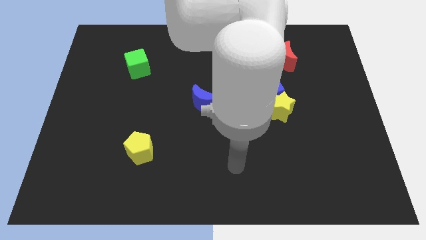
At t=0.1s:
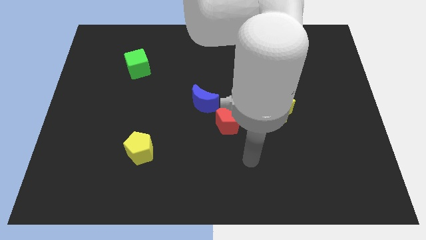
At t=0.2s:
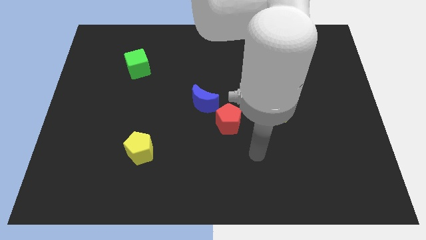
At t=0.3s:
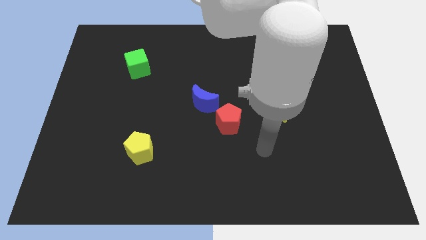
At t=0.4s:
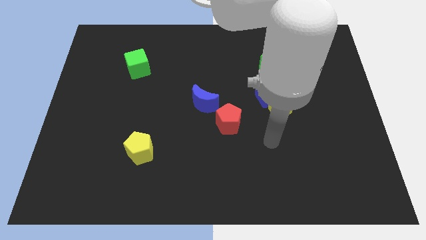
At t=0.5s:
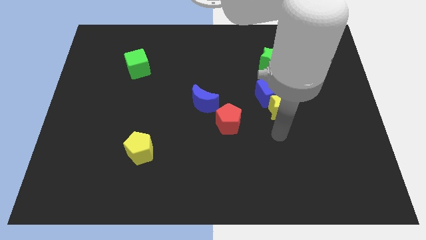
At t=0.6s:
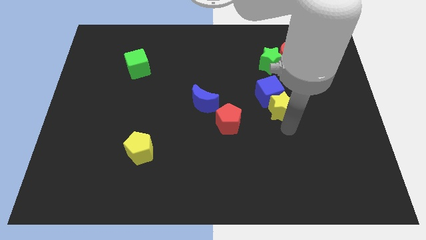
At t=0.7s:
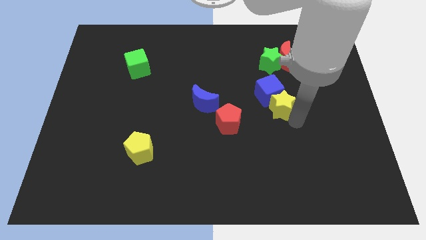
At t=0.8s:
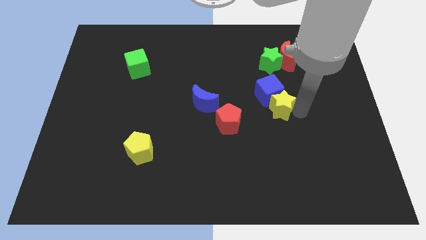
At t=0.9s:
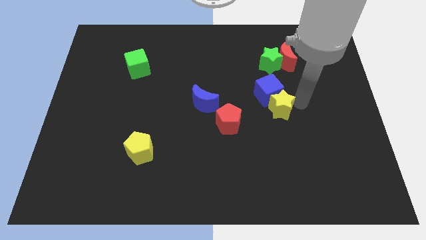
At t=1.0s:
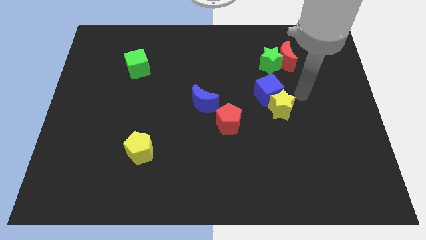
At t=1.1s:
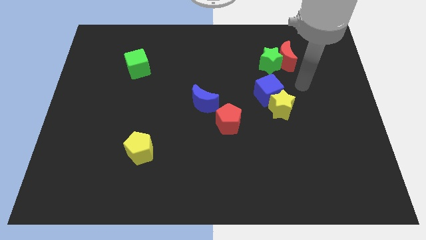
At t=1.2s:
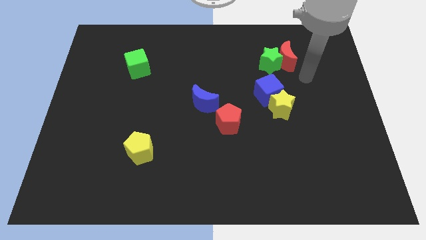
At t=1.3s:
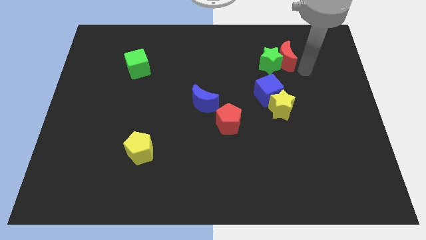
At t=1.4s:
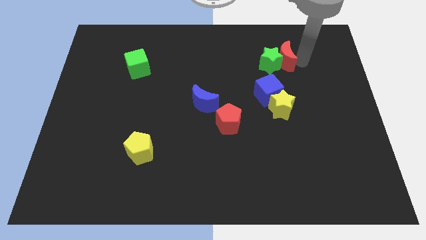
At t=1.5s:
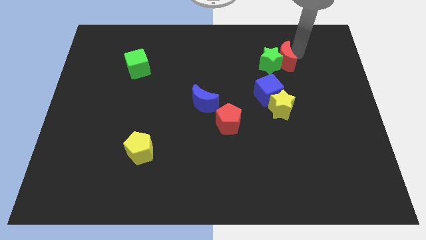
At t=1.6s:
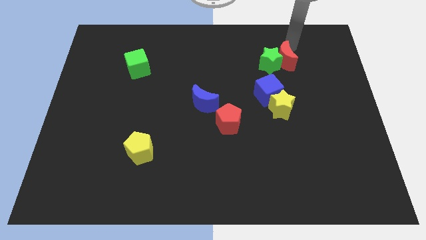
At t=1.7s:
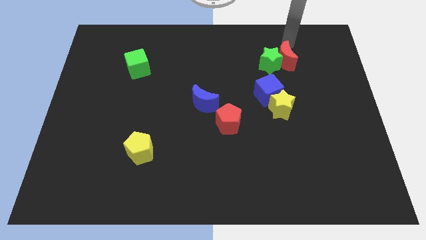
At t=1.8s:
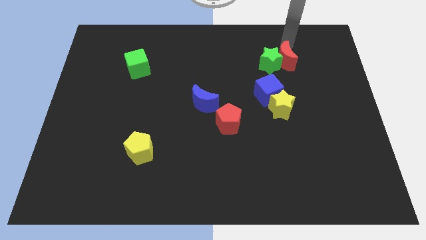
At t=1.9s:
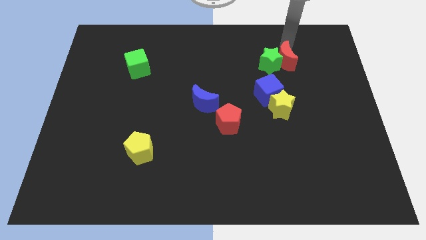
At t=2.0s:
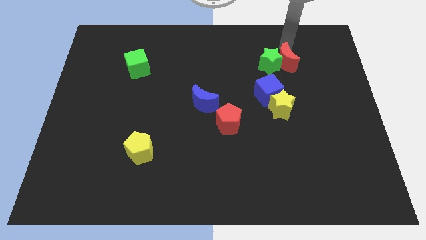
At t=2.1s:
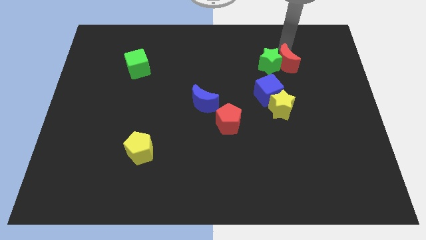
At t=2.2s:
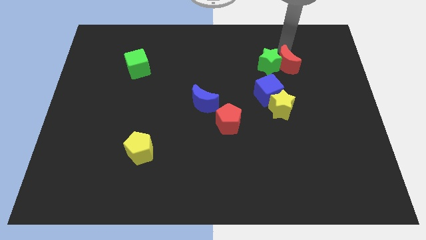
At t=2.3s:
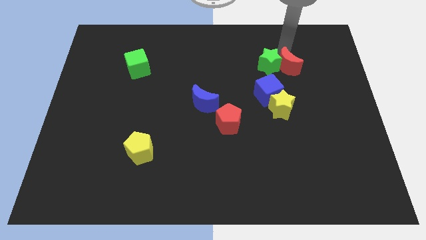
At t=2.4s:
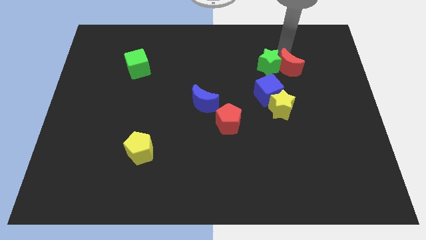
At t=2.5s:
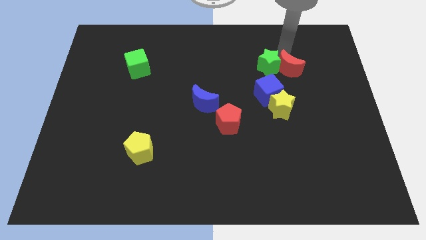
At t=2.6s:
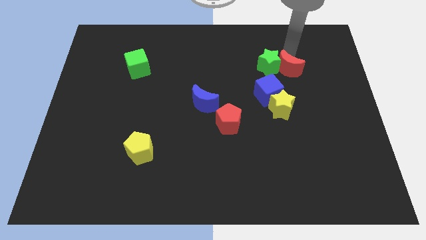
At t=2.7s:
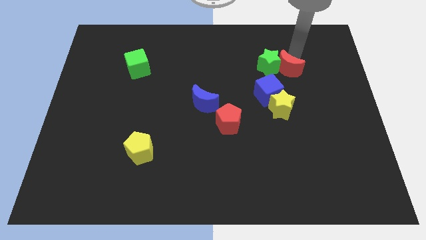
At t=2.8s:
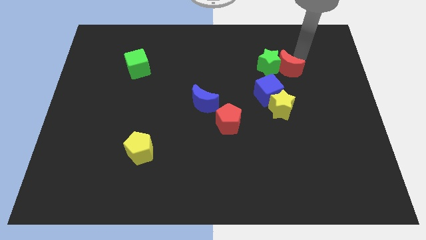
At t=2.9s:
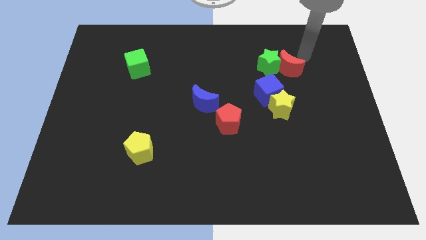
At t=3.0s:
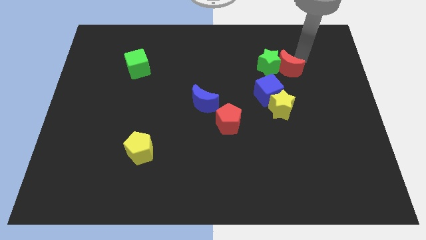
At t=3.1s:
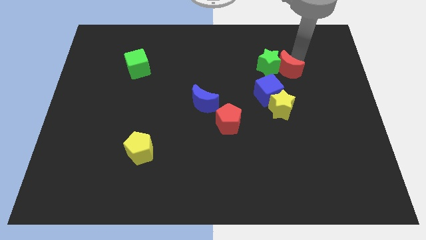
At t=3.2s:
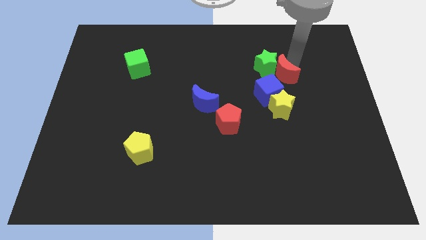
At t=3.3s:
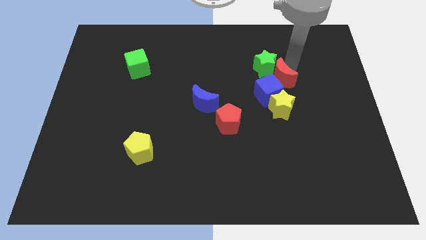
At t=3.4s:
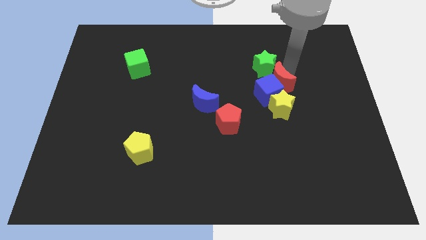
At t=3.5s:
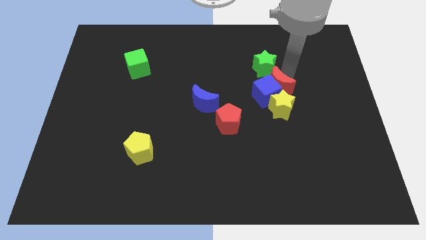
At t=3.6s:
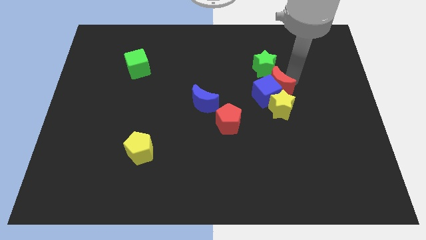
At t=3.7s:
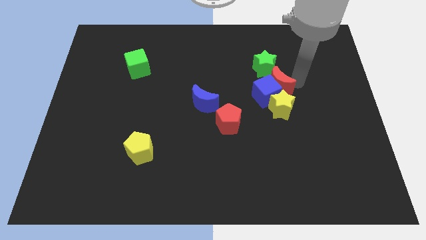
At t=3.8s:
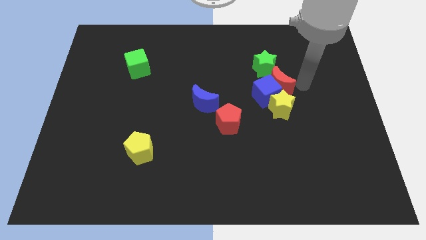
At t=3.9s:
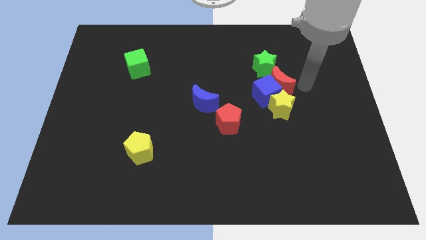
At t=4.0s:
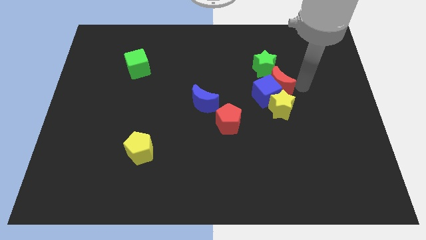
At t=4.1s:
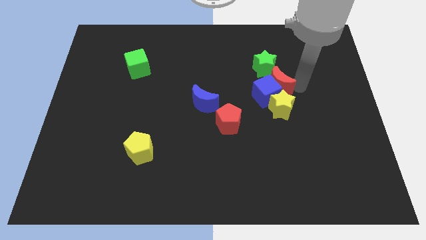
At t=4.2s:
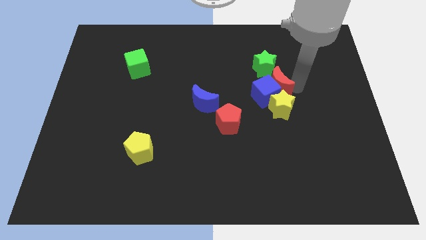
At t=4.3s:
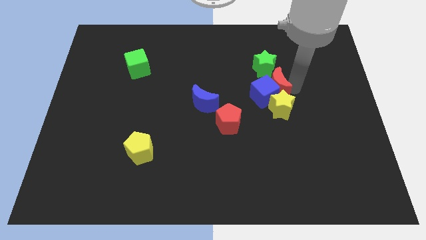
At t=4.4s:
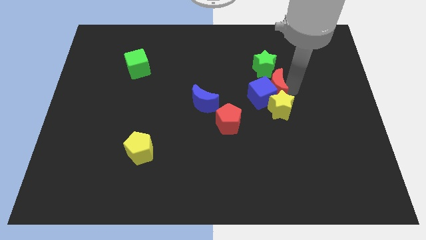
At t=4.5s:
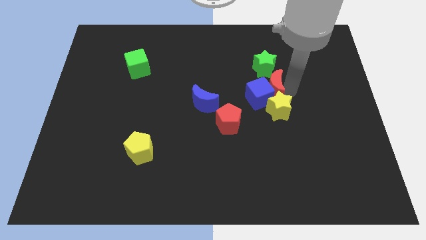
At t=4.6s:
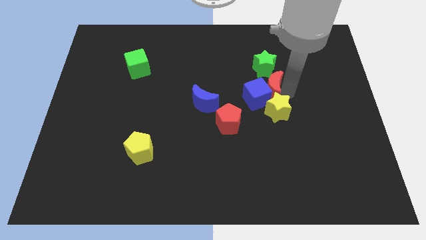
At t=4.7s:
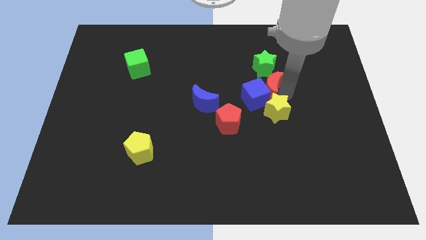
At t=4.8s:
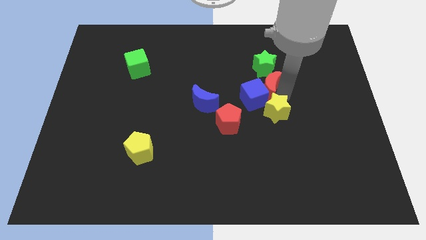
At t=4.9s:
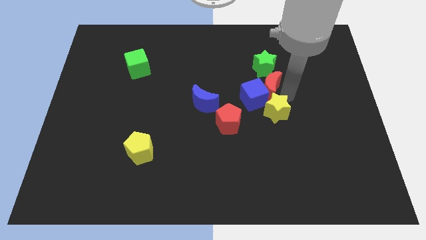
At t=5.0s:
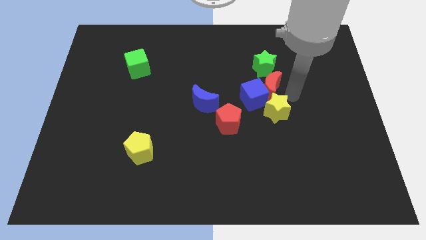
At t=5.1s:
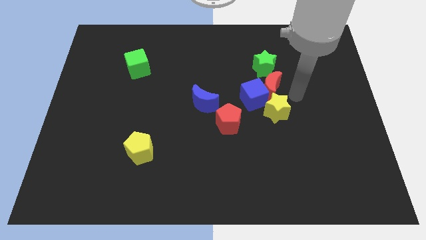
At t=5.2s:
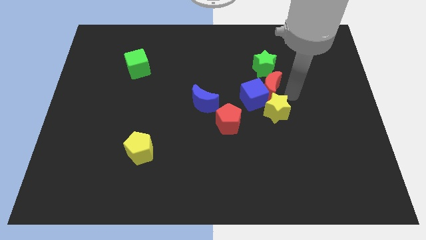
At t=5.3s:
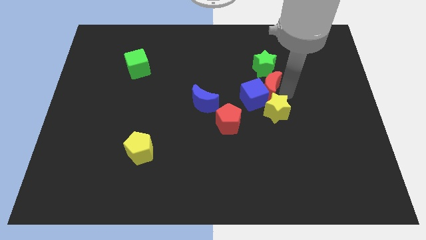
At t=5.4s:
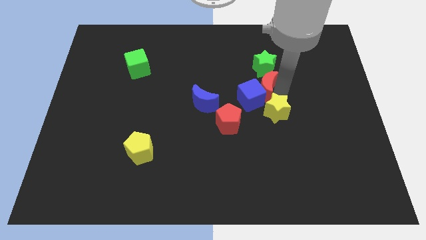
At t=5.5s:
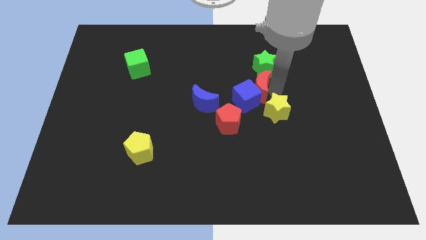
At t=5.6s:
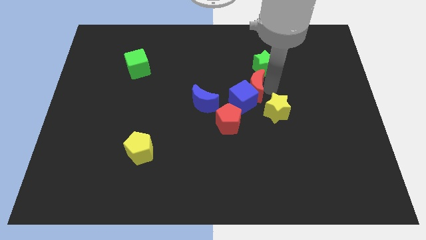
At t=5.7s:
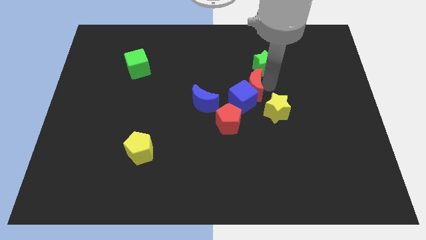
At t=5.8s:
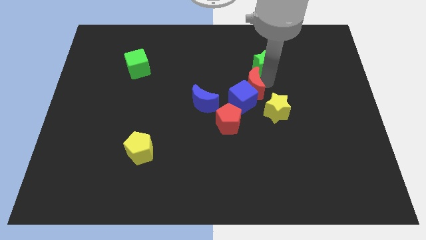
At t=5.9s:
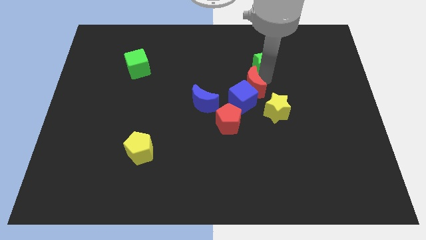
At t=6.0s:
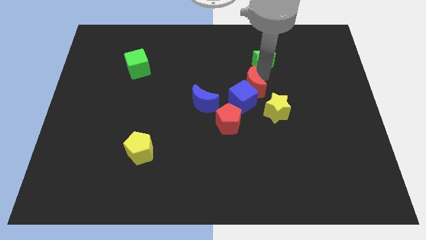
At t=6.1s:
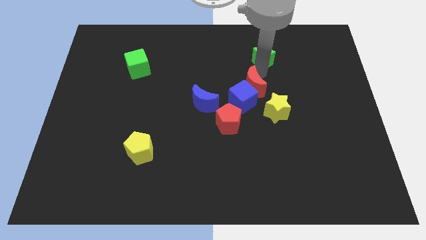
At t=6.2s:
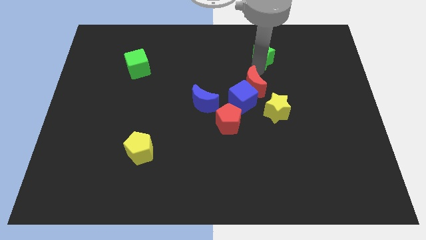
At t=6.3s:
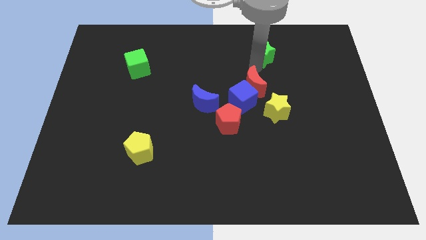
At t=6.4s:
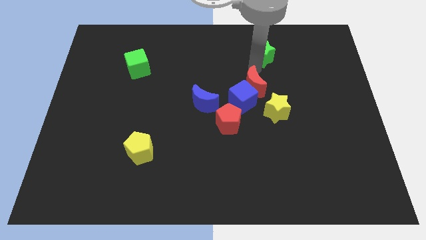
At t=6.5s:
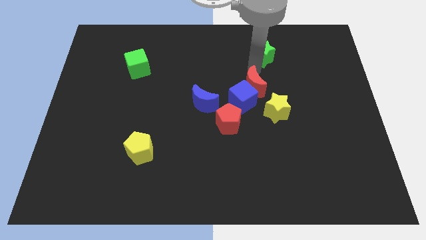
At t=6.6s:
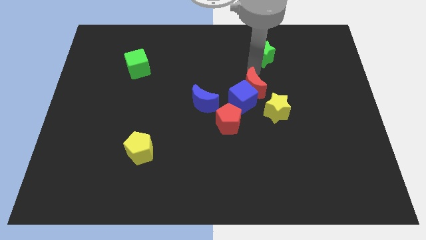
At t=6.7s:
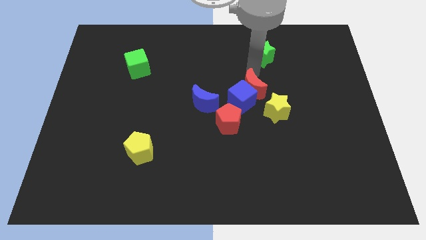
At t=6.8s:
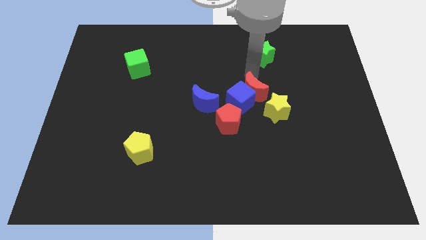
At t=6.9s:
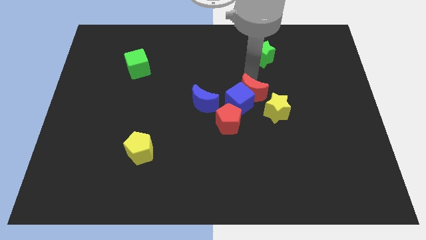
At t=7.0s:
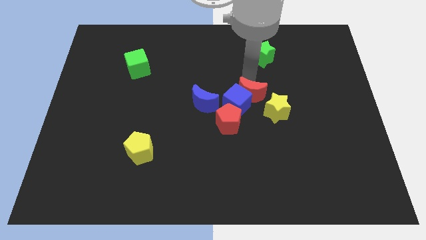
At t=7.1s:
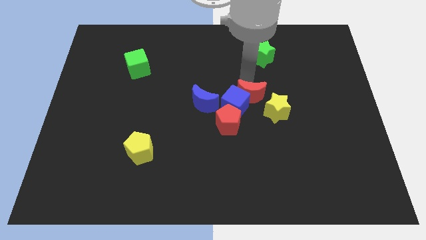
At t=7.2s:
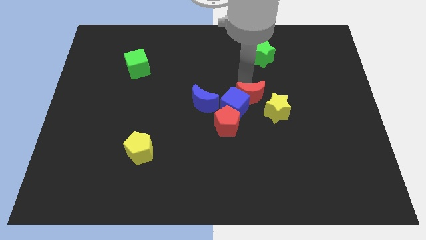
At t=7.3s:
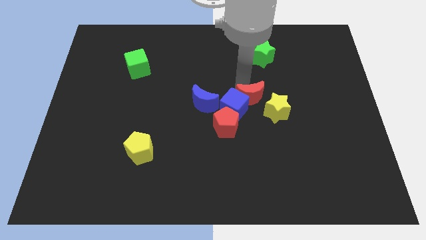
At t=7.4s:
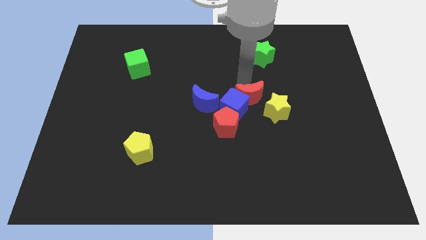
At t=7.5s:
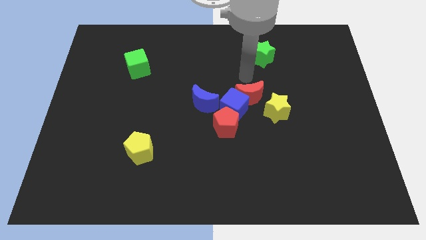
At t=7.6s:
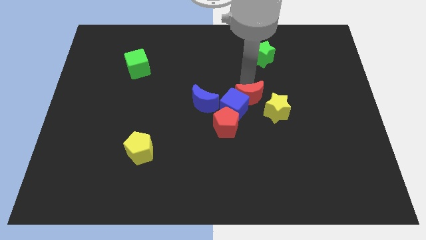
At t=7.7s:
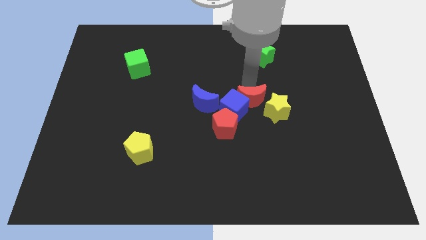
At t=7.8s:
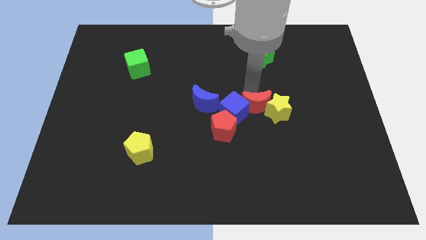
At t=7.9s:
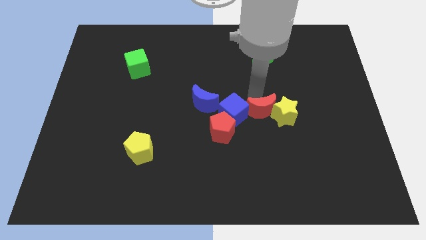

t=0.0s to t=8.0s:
push the red moon to the bottom left of the yellow star
